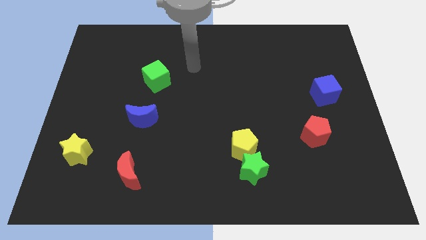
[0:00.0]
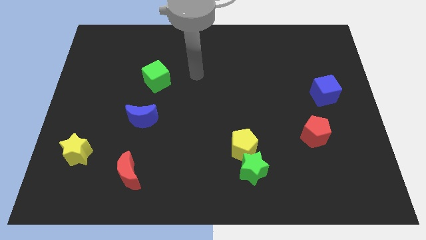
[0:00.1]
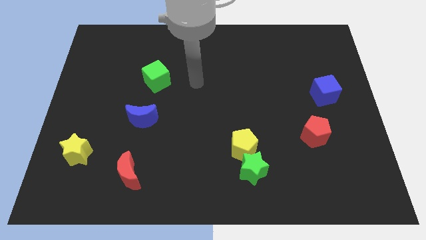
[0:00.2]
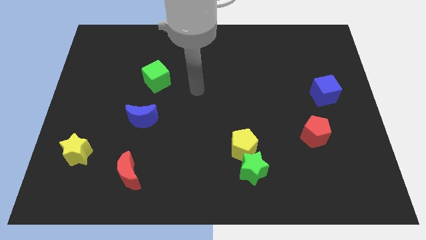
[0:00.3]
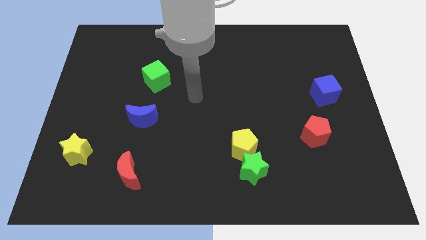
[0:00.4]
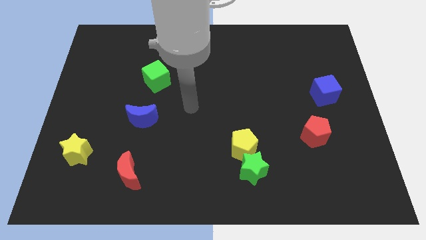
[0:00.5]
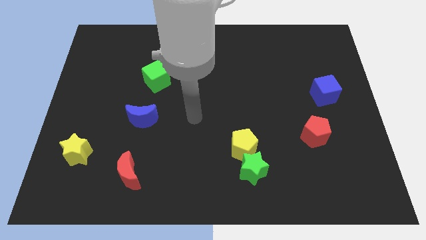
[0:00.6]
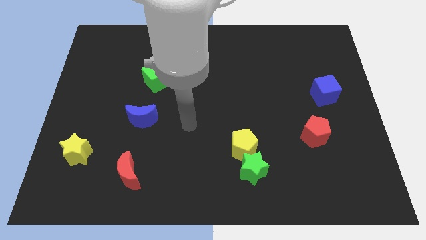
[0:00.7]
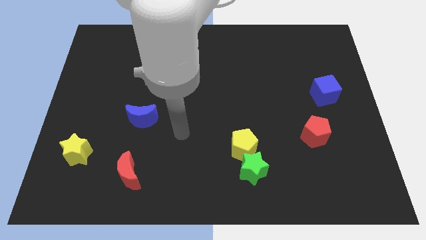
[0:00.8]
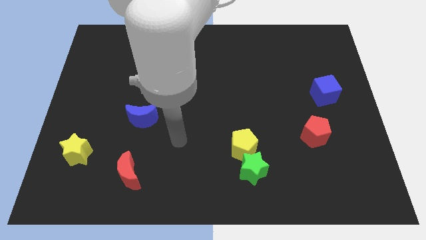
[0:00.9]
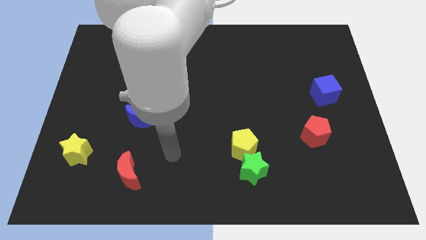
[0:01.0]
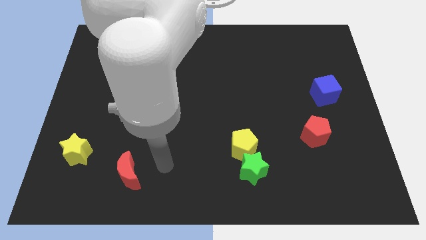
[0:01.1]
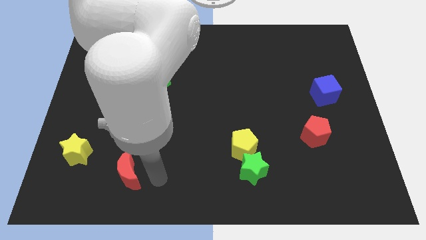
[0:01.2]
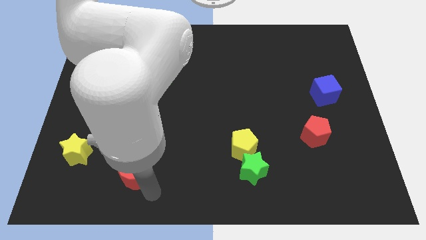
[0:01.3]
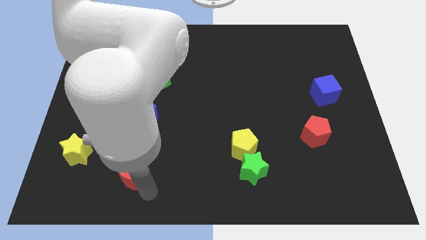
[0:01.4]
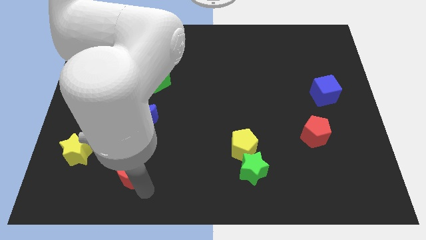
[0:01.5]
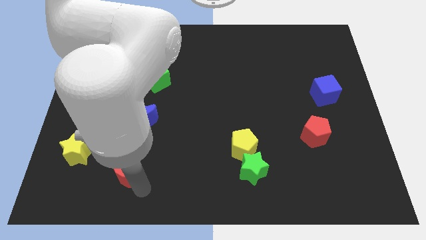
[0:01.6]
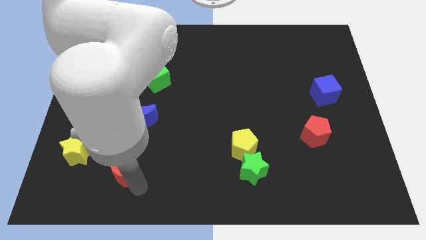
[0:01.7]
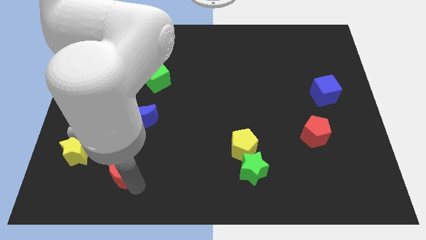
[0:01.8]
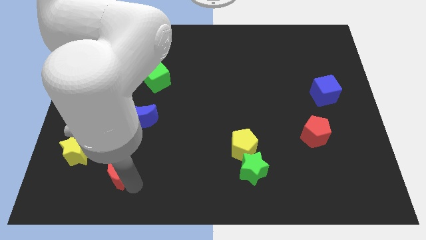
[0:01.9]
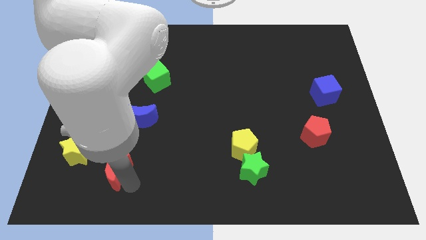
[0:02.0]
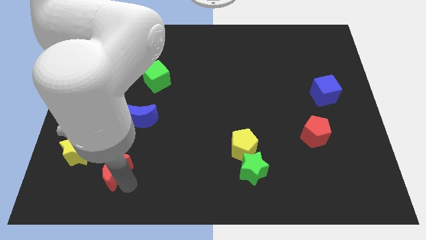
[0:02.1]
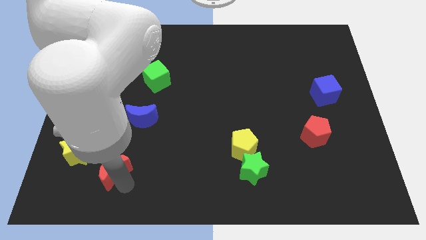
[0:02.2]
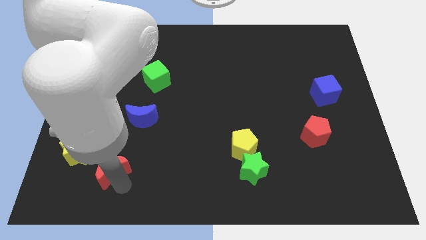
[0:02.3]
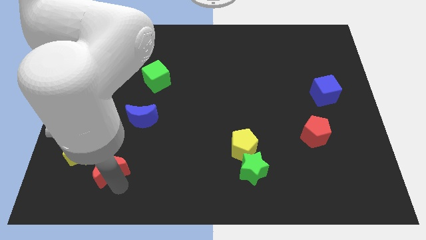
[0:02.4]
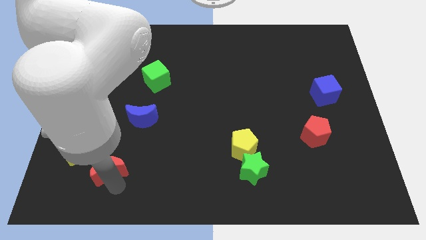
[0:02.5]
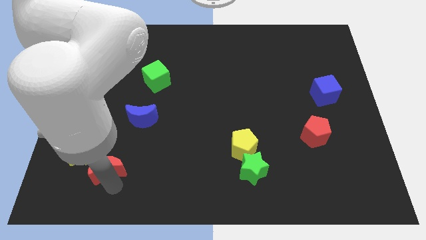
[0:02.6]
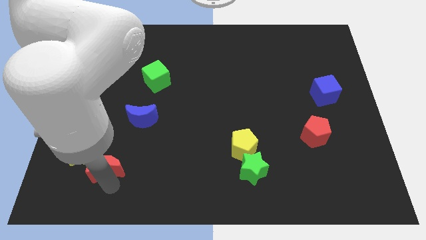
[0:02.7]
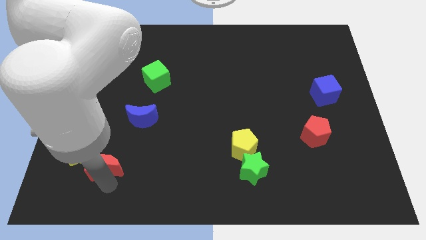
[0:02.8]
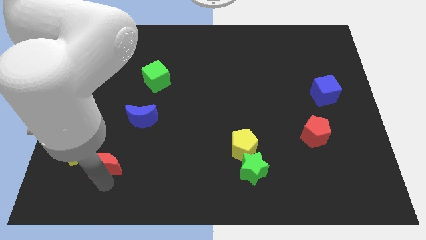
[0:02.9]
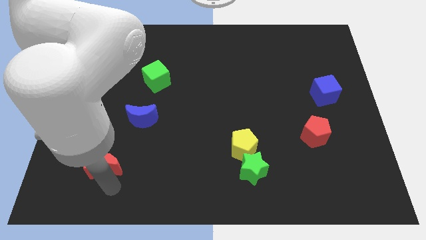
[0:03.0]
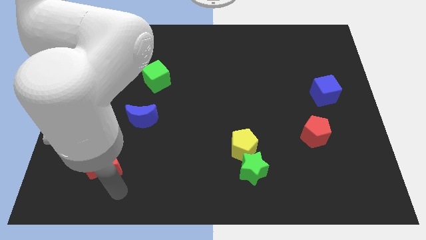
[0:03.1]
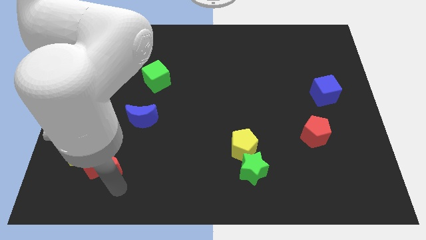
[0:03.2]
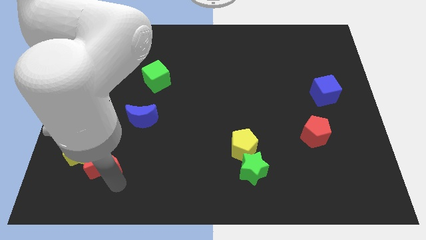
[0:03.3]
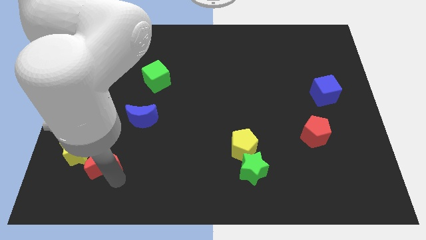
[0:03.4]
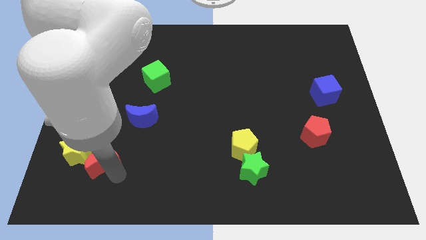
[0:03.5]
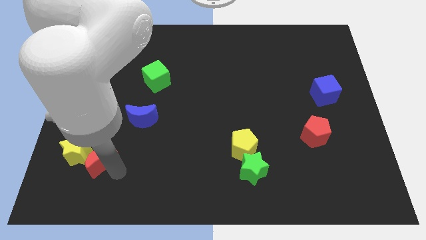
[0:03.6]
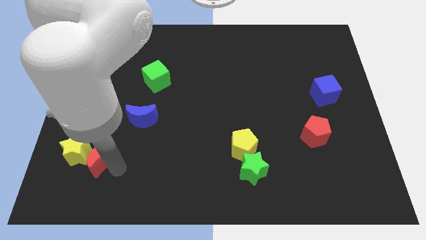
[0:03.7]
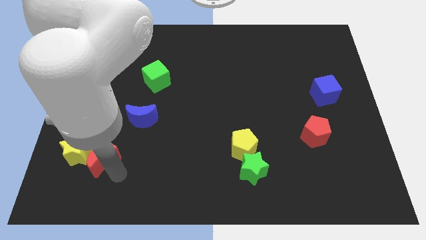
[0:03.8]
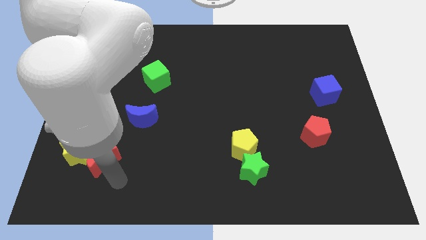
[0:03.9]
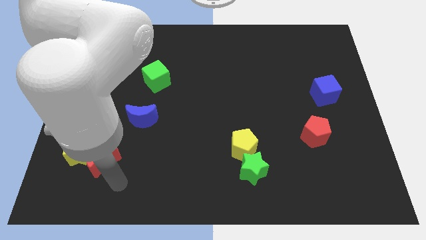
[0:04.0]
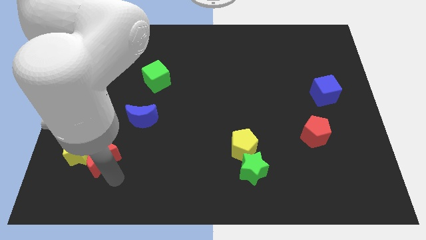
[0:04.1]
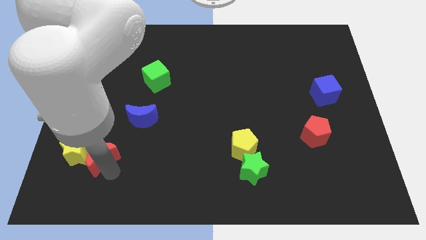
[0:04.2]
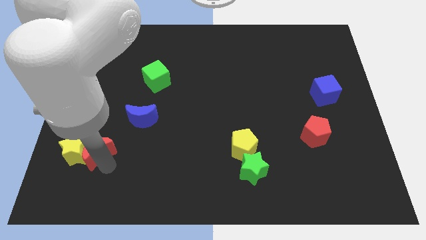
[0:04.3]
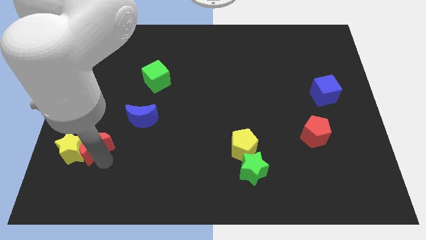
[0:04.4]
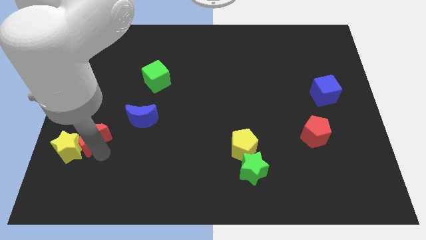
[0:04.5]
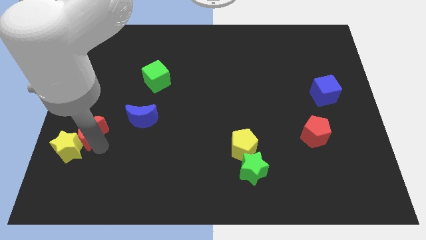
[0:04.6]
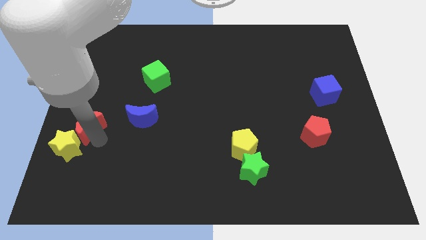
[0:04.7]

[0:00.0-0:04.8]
push the red moon to the left side

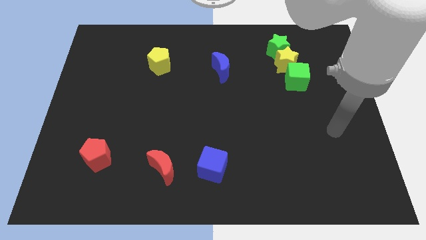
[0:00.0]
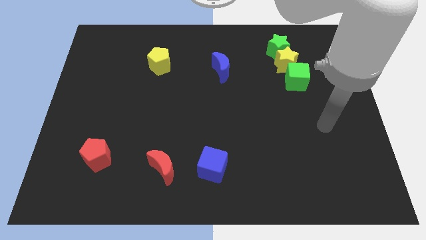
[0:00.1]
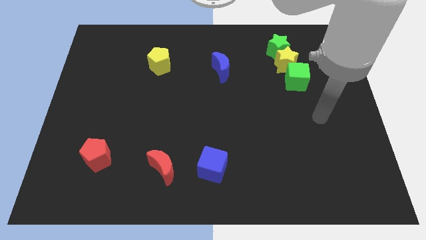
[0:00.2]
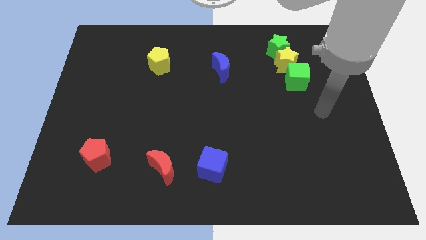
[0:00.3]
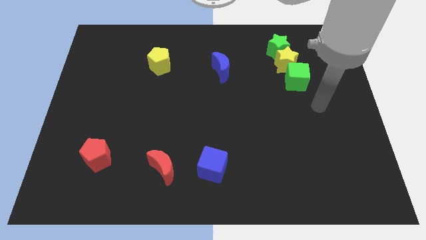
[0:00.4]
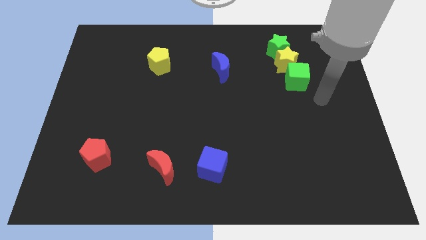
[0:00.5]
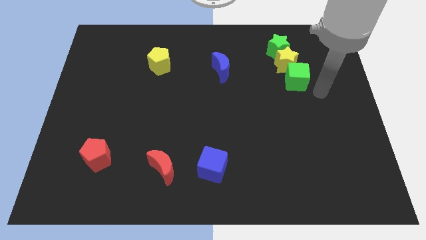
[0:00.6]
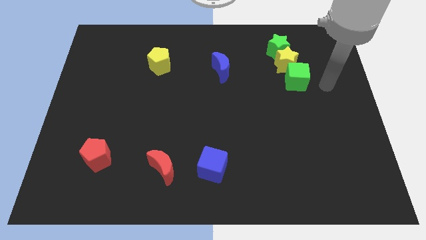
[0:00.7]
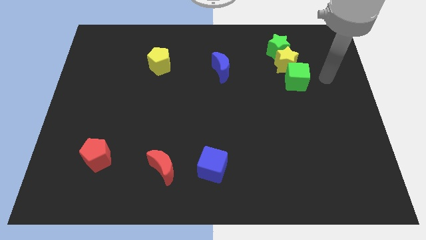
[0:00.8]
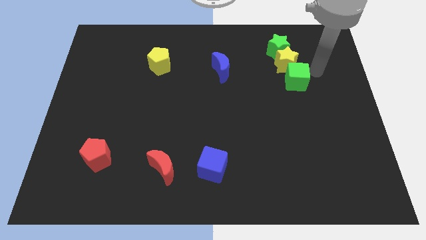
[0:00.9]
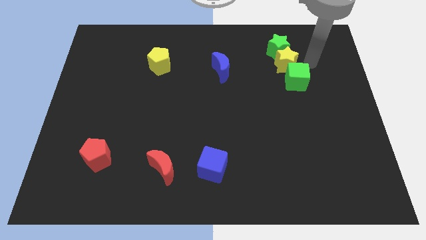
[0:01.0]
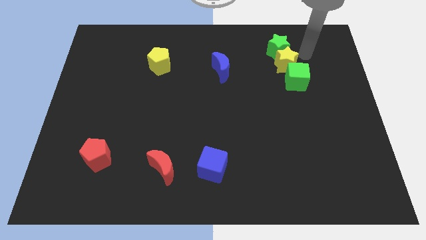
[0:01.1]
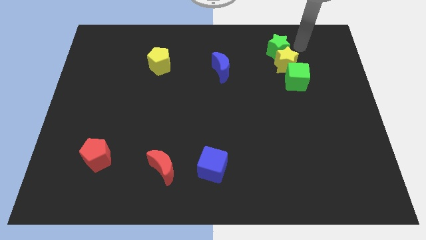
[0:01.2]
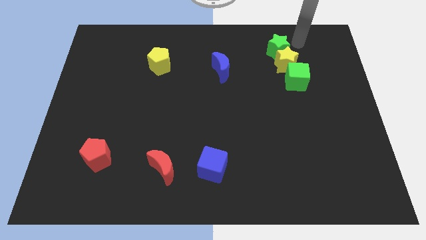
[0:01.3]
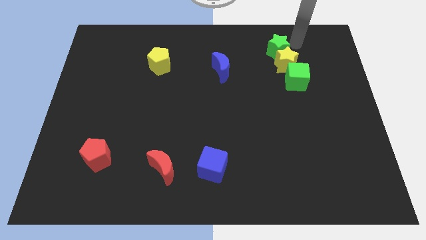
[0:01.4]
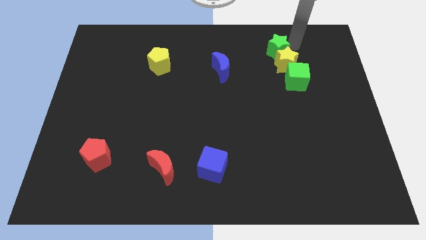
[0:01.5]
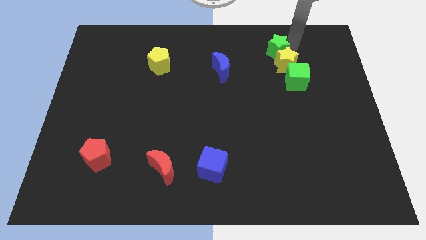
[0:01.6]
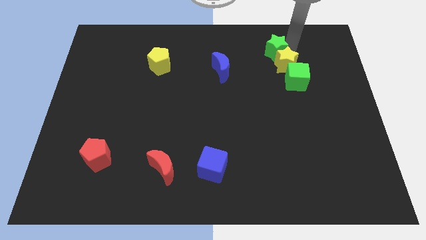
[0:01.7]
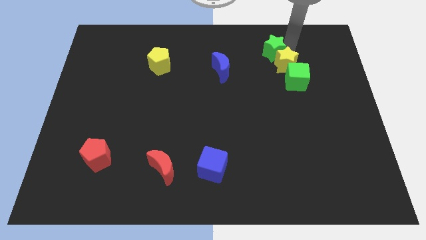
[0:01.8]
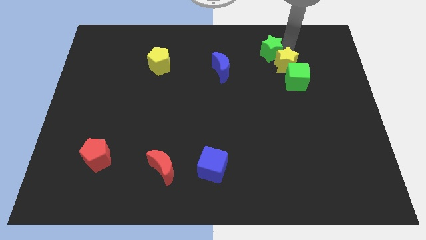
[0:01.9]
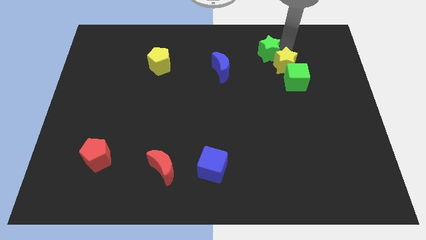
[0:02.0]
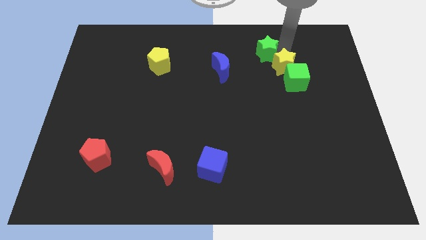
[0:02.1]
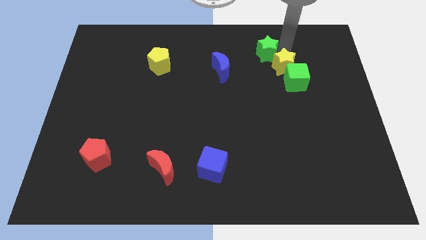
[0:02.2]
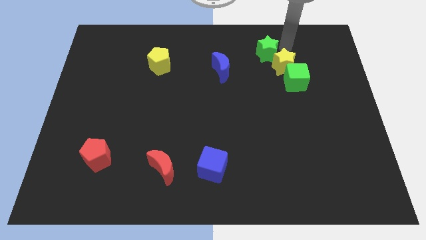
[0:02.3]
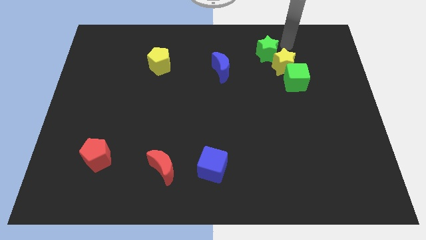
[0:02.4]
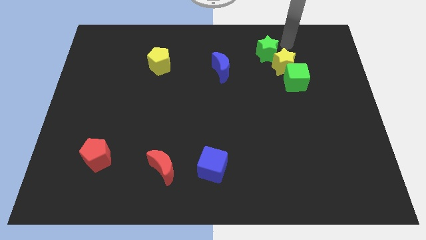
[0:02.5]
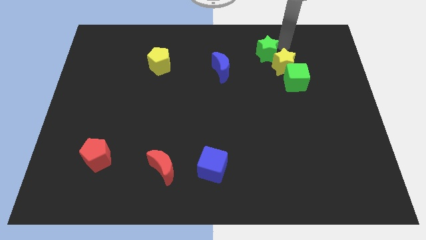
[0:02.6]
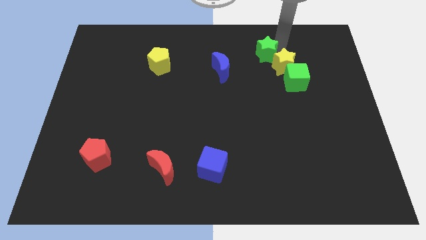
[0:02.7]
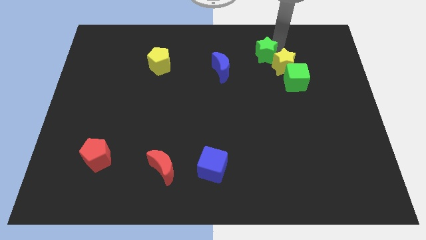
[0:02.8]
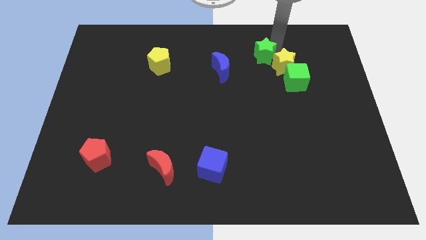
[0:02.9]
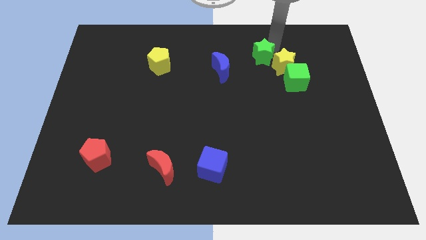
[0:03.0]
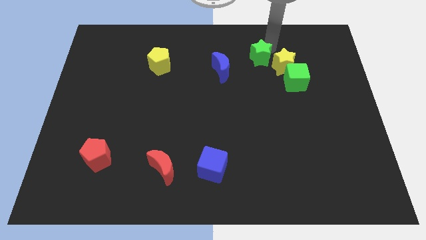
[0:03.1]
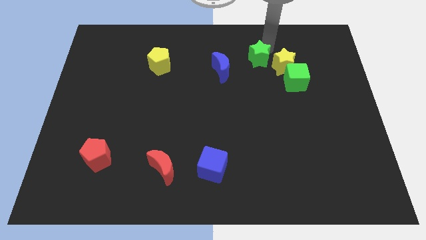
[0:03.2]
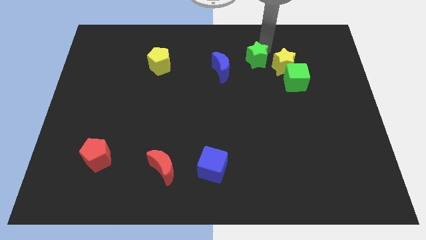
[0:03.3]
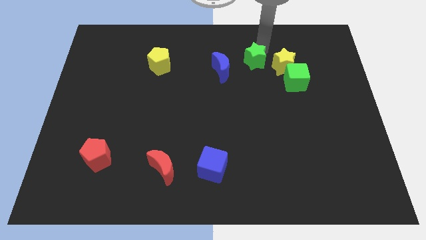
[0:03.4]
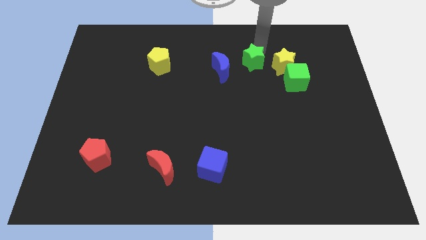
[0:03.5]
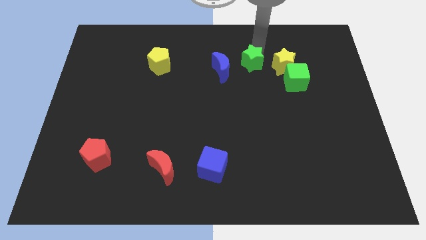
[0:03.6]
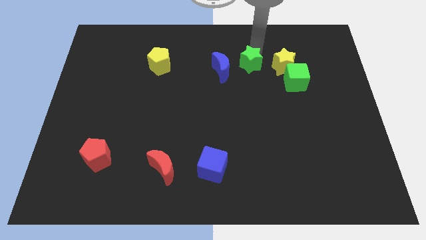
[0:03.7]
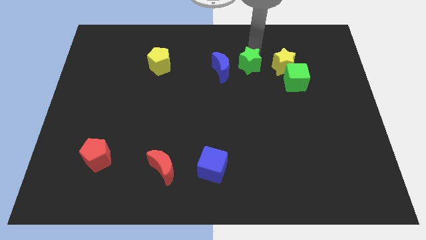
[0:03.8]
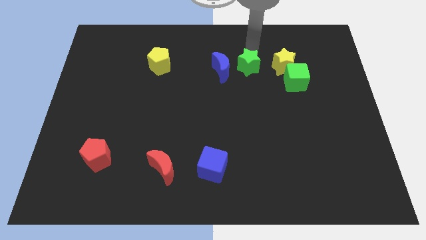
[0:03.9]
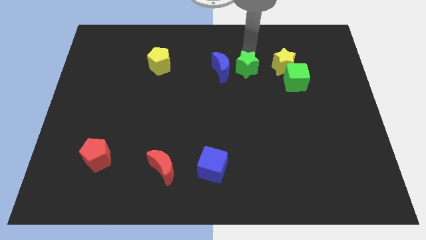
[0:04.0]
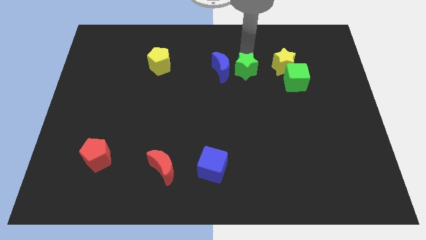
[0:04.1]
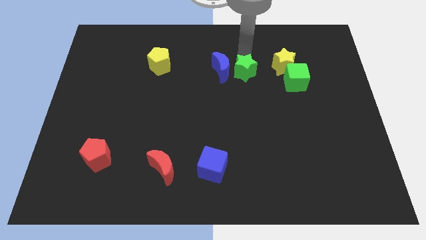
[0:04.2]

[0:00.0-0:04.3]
push the green star to the middle
